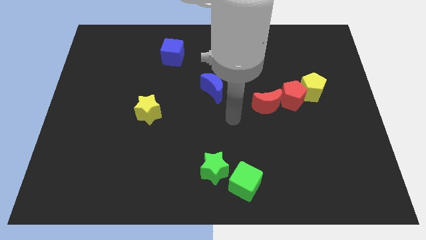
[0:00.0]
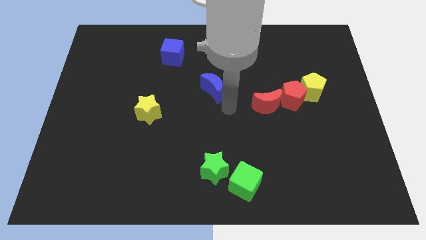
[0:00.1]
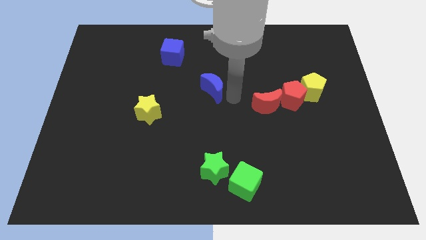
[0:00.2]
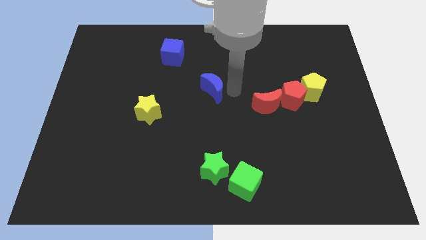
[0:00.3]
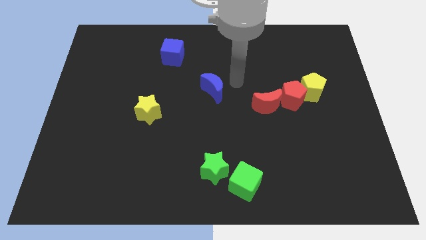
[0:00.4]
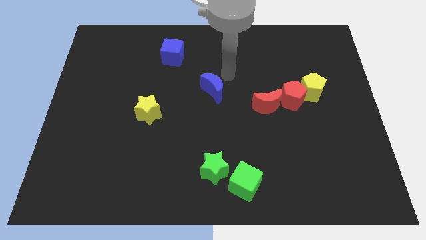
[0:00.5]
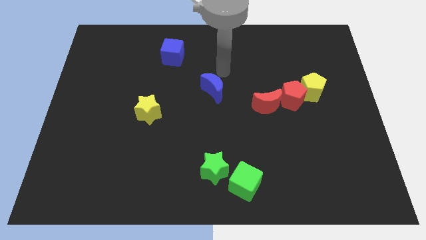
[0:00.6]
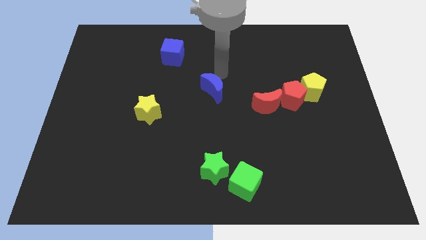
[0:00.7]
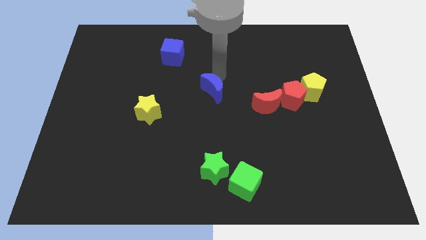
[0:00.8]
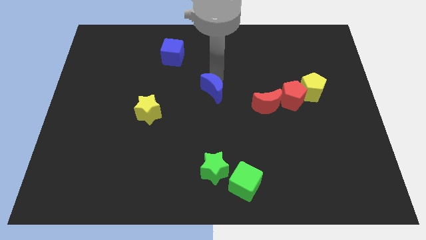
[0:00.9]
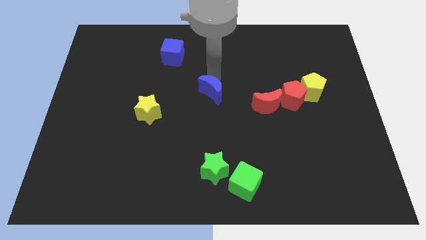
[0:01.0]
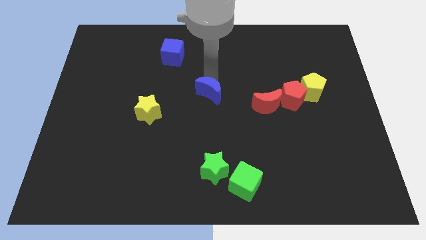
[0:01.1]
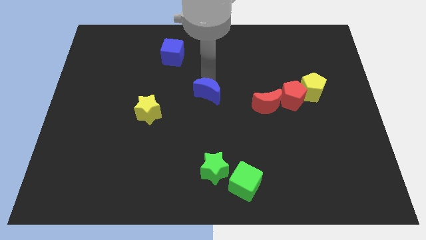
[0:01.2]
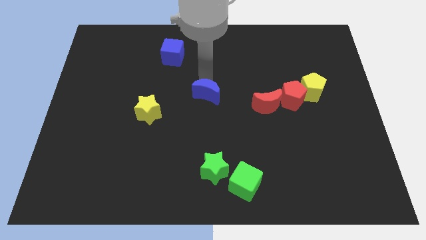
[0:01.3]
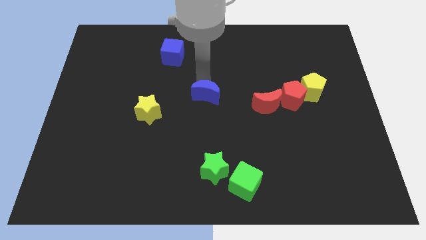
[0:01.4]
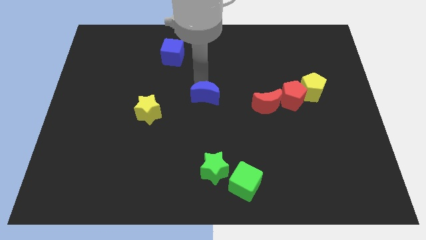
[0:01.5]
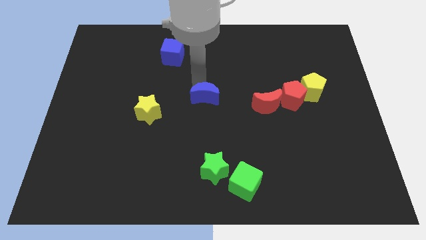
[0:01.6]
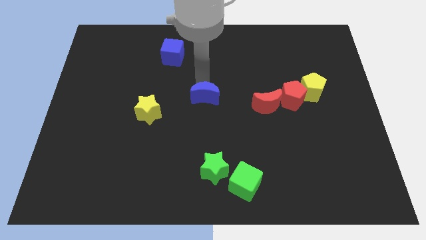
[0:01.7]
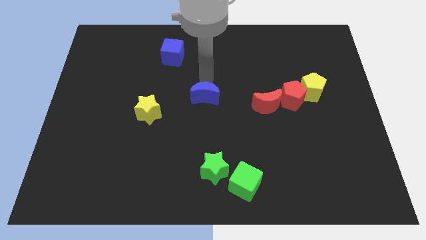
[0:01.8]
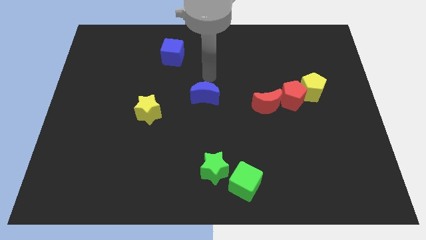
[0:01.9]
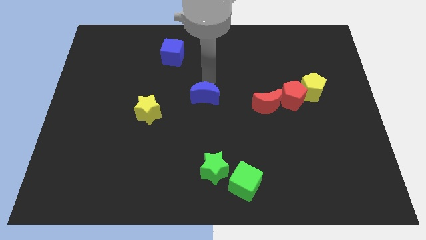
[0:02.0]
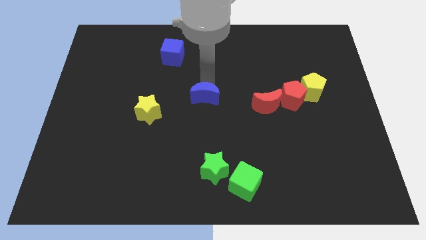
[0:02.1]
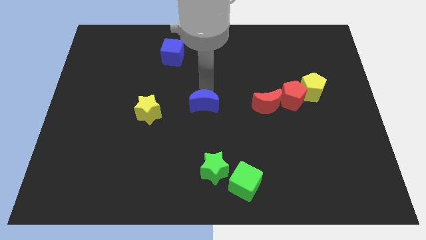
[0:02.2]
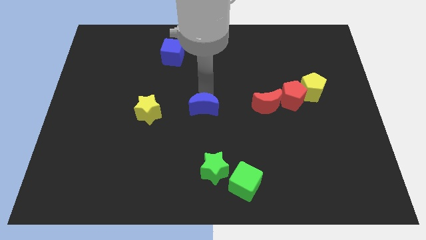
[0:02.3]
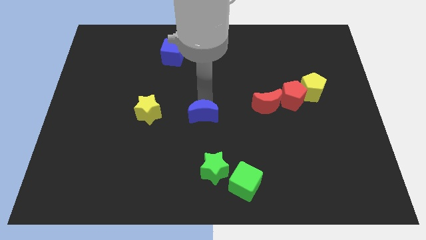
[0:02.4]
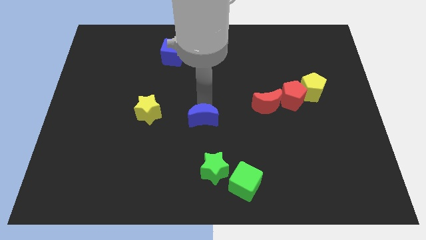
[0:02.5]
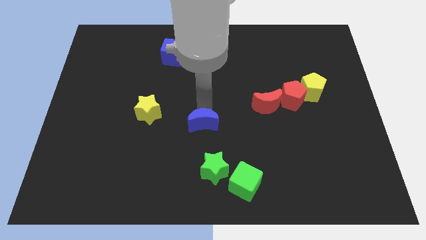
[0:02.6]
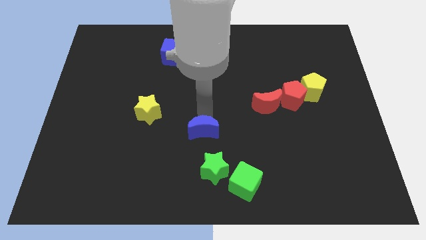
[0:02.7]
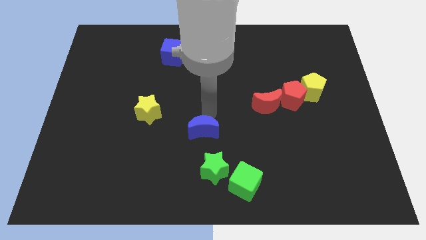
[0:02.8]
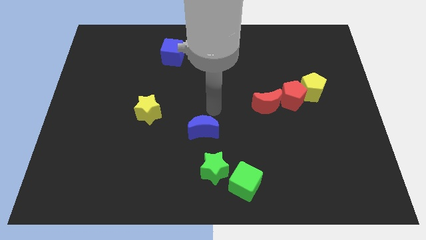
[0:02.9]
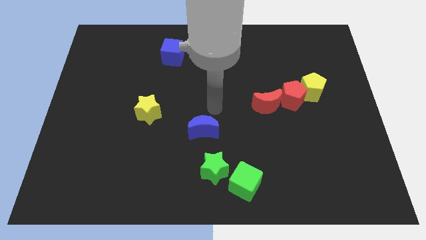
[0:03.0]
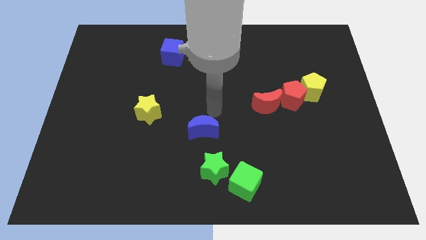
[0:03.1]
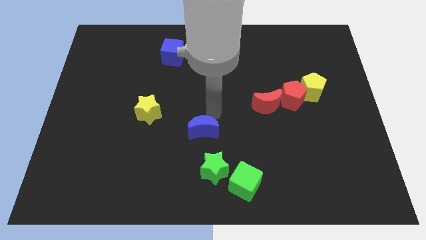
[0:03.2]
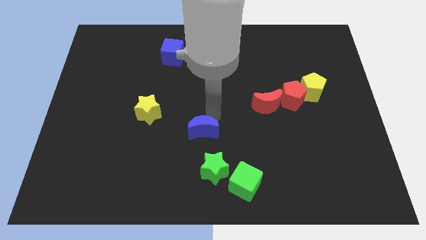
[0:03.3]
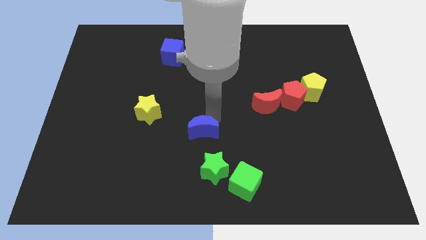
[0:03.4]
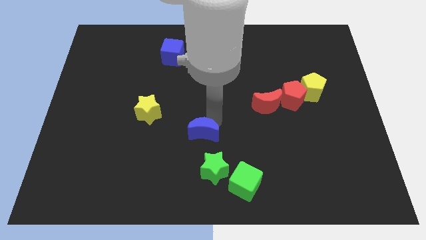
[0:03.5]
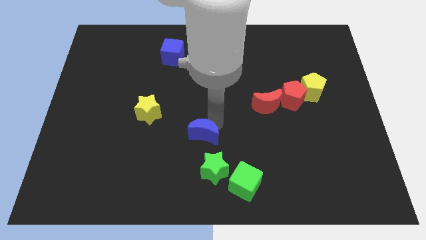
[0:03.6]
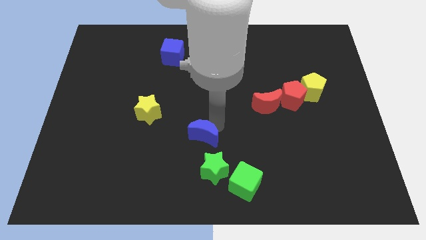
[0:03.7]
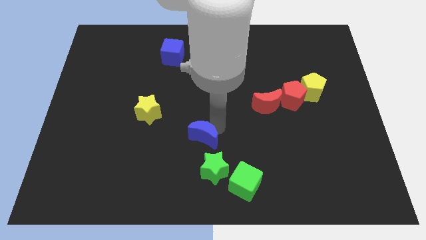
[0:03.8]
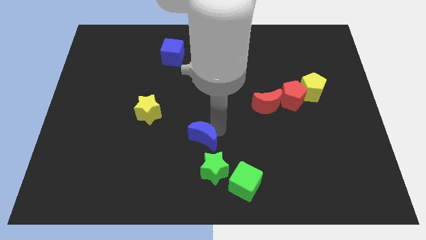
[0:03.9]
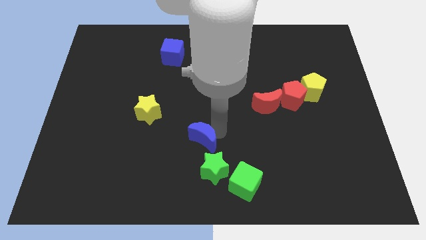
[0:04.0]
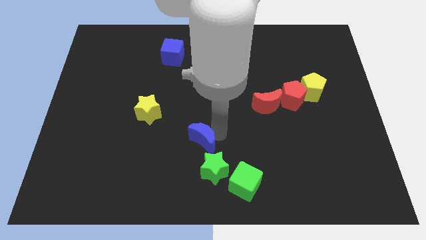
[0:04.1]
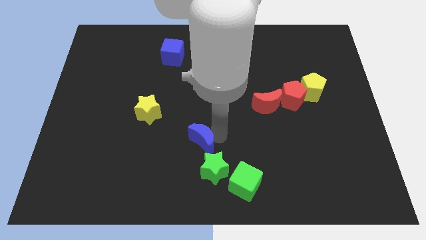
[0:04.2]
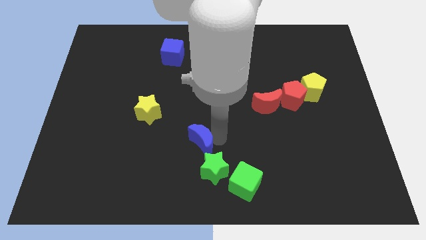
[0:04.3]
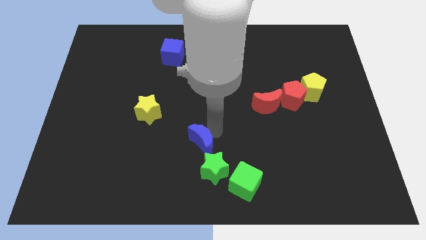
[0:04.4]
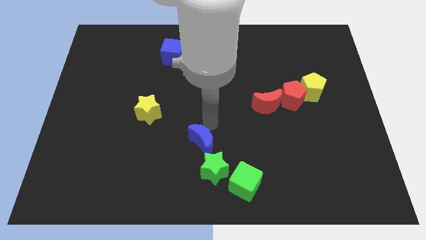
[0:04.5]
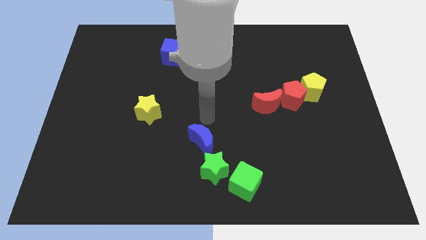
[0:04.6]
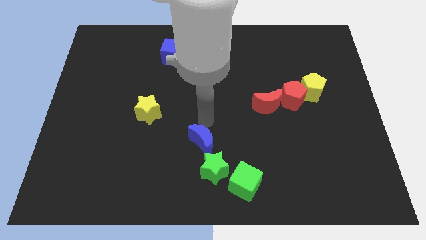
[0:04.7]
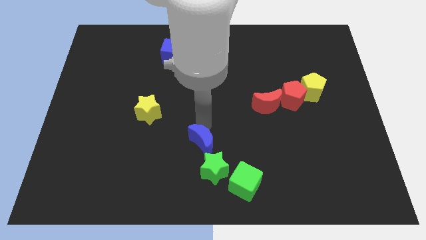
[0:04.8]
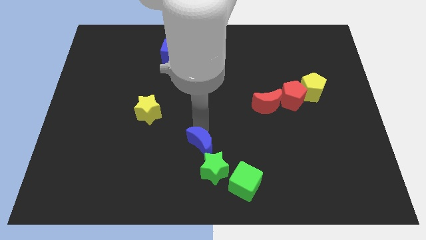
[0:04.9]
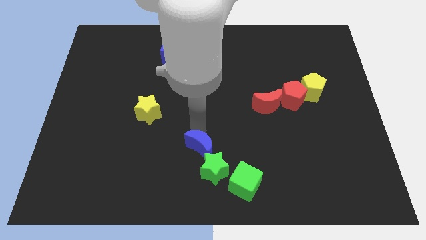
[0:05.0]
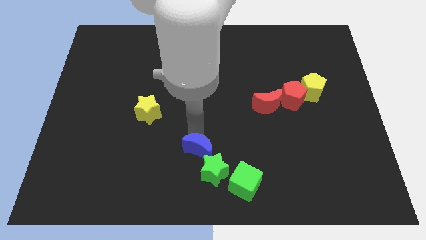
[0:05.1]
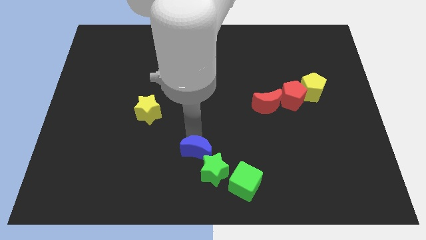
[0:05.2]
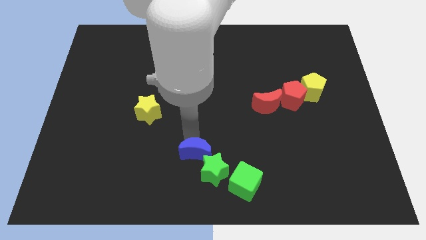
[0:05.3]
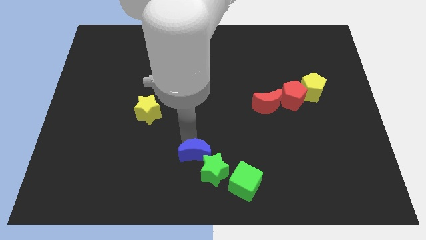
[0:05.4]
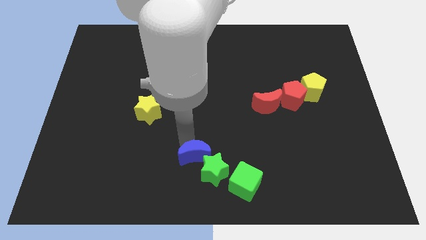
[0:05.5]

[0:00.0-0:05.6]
slide the blue moon to the bottom side

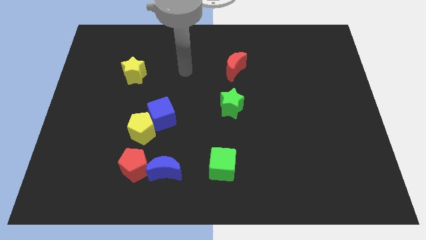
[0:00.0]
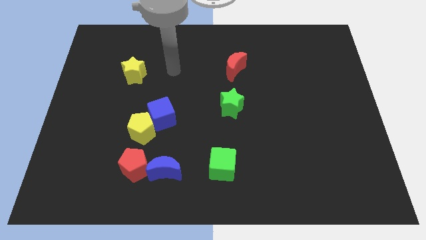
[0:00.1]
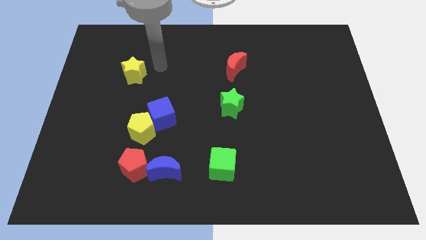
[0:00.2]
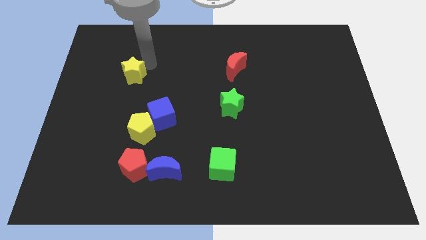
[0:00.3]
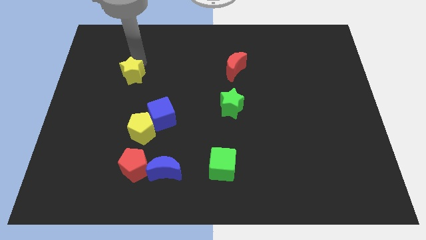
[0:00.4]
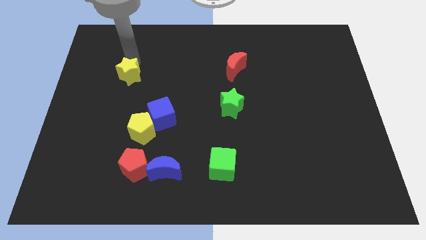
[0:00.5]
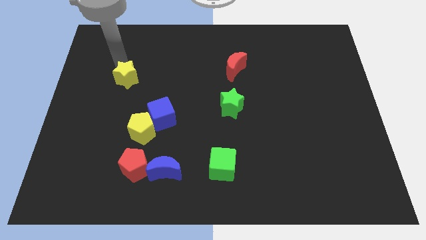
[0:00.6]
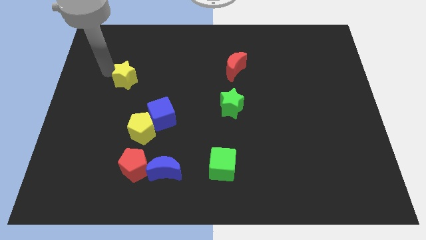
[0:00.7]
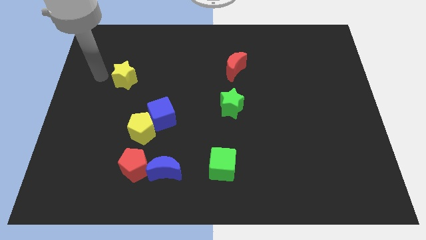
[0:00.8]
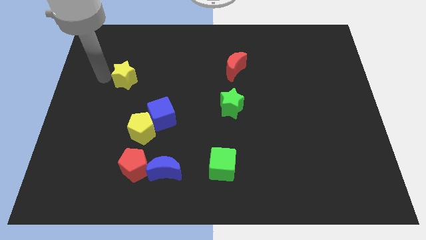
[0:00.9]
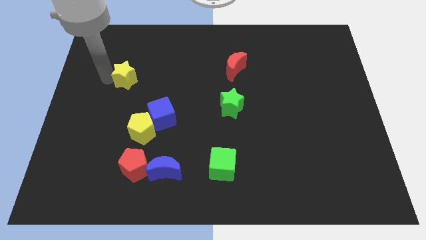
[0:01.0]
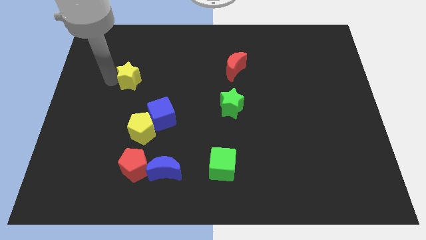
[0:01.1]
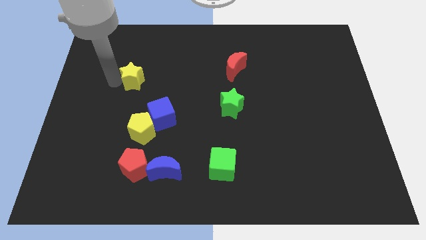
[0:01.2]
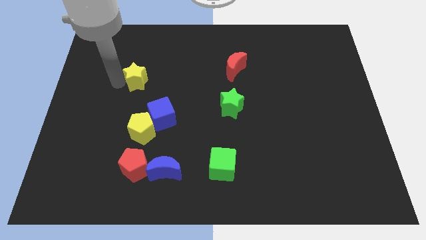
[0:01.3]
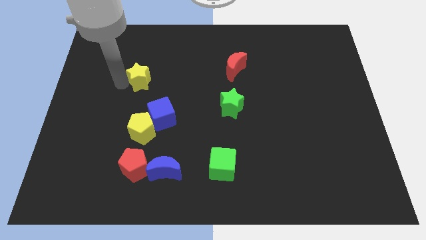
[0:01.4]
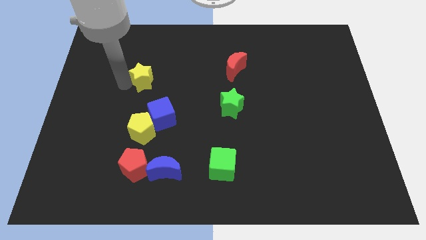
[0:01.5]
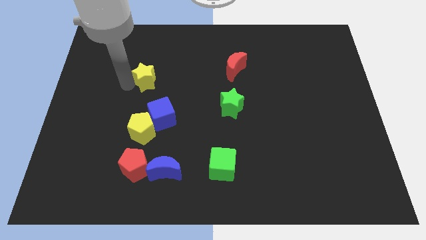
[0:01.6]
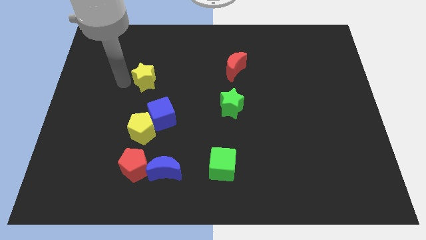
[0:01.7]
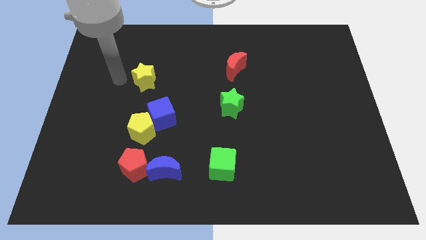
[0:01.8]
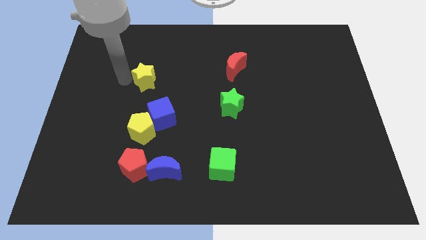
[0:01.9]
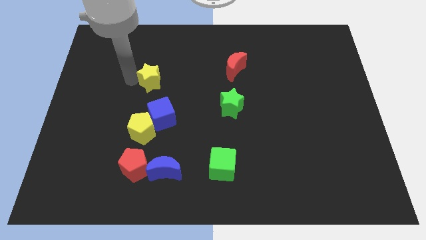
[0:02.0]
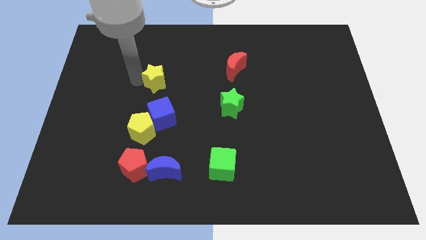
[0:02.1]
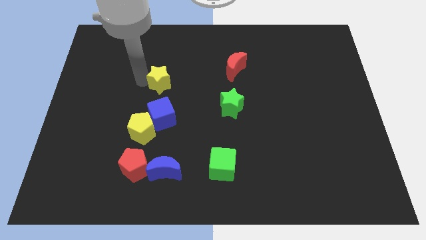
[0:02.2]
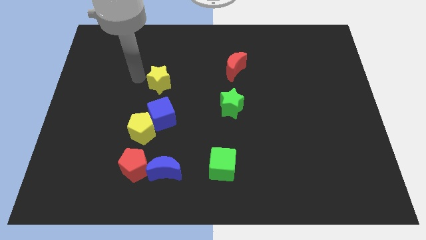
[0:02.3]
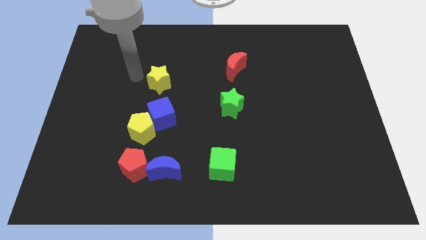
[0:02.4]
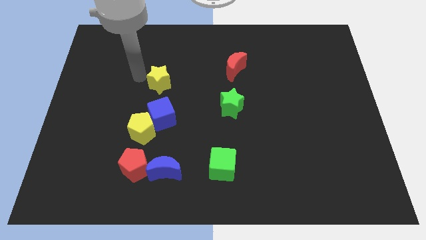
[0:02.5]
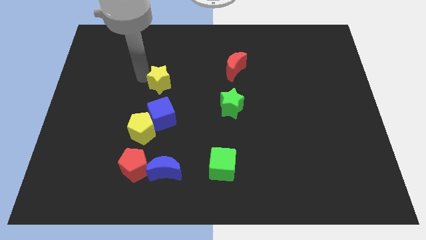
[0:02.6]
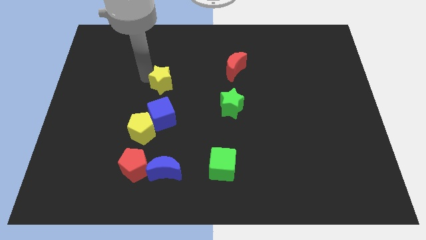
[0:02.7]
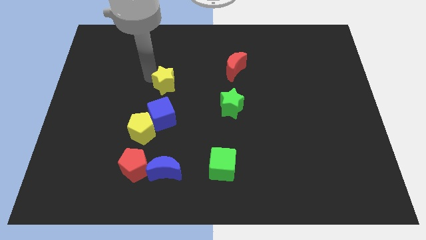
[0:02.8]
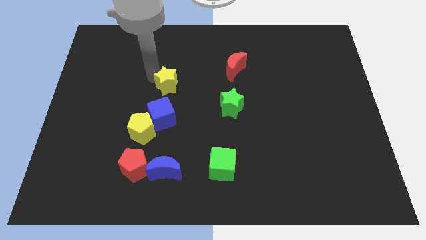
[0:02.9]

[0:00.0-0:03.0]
put the yellow star to the center of the board
